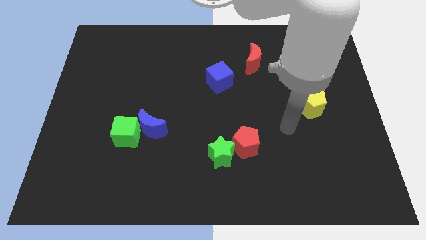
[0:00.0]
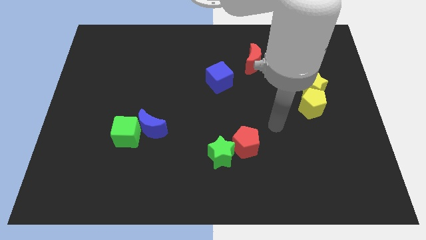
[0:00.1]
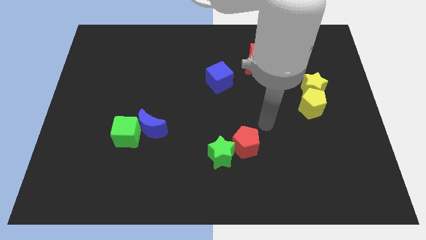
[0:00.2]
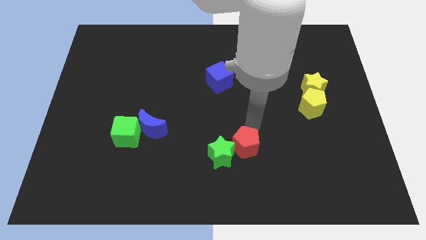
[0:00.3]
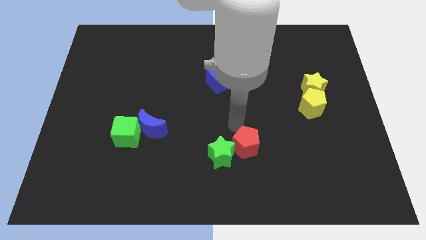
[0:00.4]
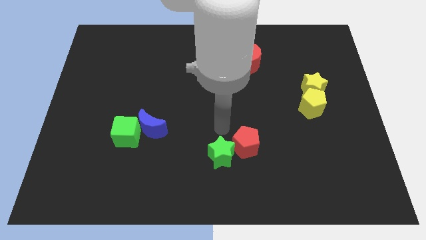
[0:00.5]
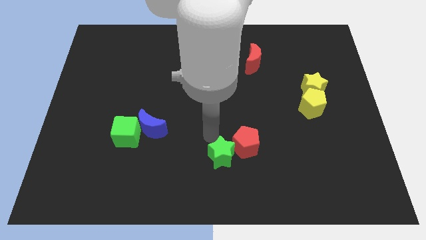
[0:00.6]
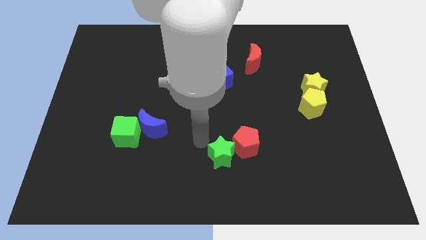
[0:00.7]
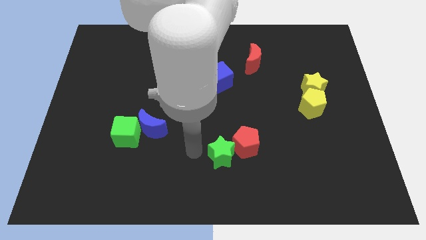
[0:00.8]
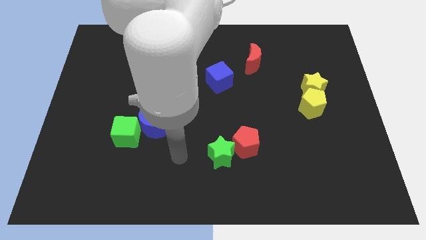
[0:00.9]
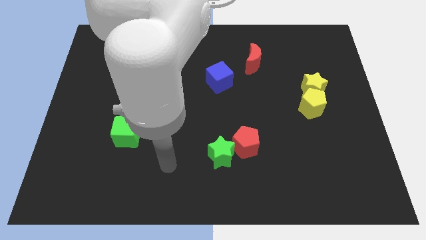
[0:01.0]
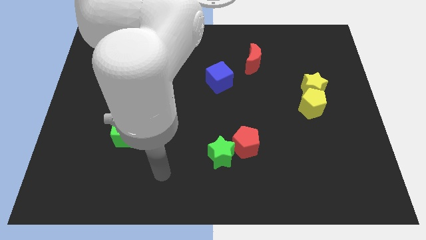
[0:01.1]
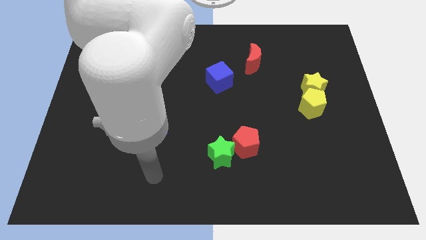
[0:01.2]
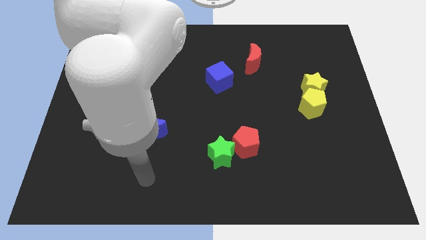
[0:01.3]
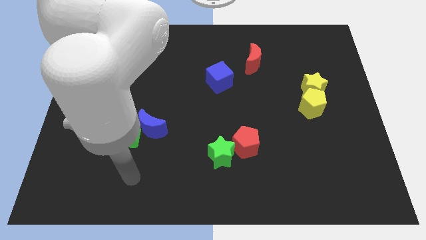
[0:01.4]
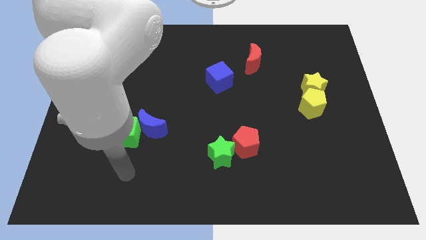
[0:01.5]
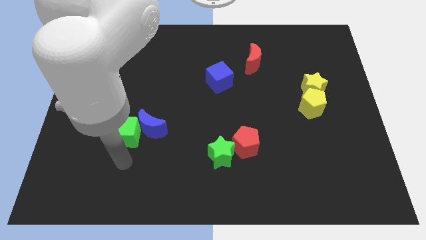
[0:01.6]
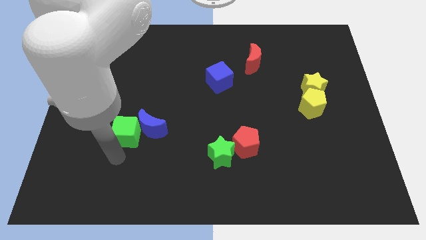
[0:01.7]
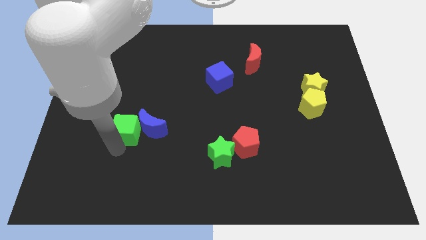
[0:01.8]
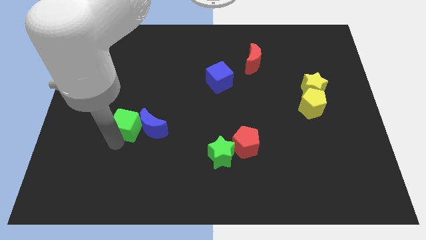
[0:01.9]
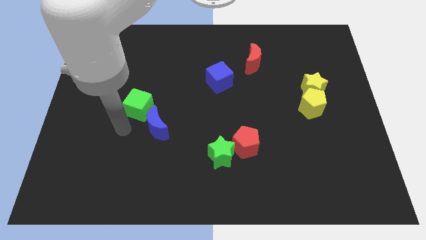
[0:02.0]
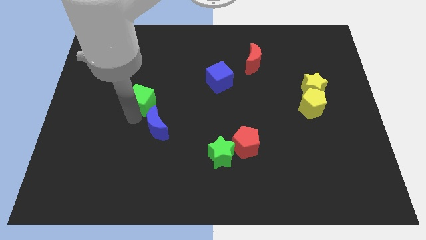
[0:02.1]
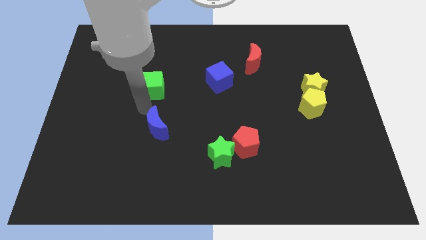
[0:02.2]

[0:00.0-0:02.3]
move the blue moon away from the green cube

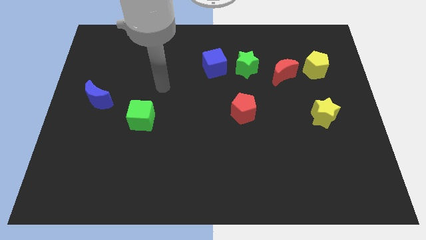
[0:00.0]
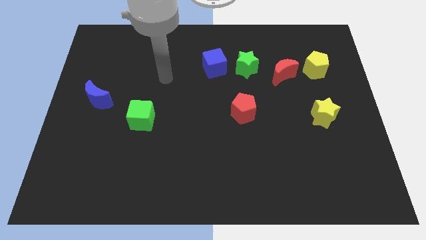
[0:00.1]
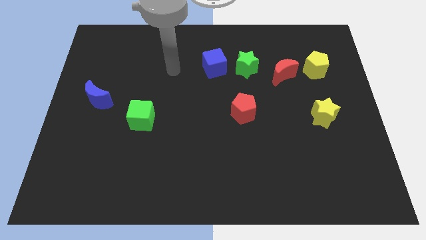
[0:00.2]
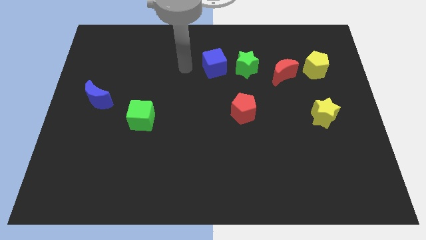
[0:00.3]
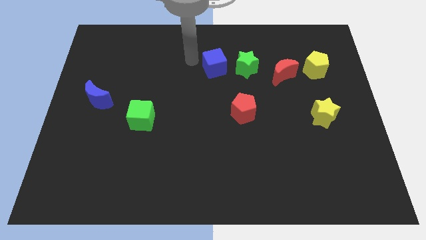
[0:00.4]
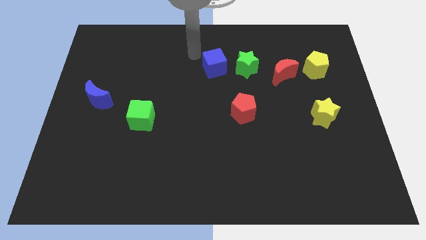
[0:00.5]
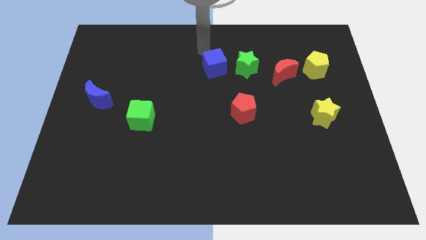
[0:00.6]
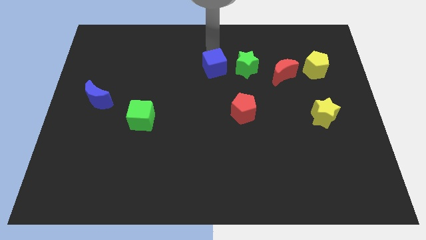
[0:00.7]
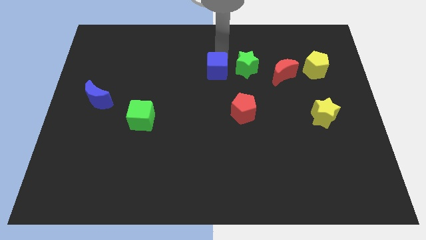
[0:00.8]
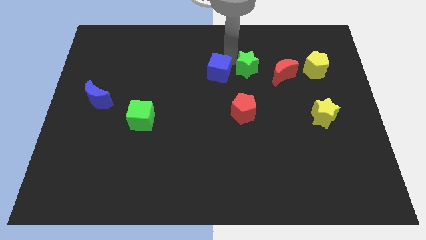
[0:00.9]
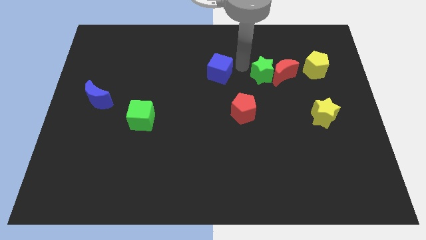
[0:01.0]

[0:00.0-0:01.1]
move the blue cube away from the green star

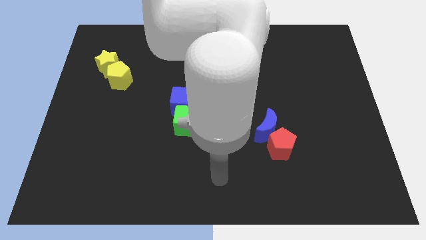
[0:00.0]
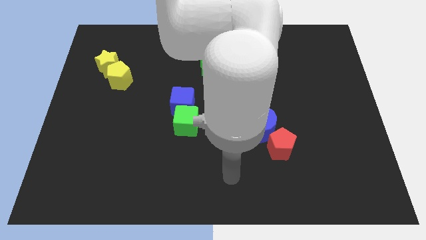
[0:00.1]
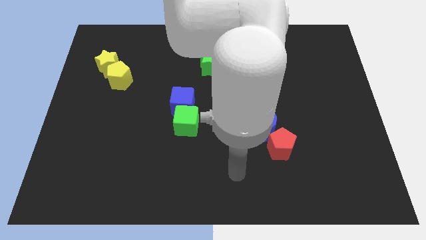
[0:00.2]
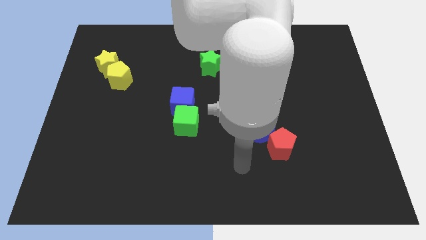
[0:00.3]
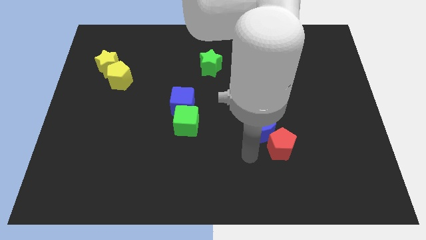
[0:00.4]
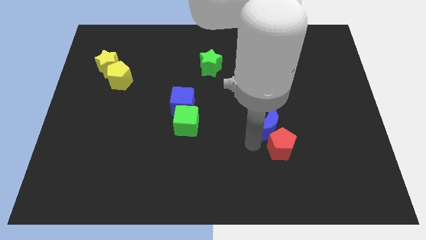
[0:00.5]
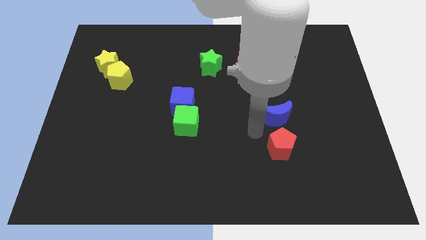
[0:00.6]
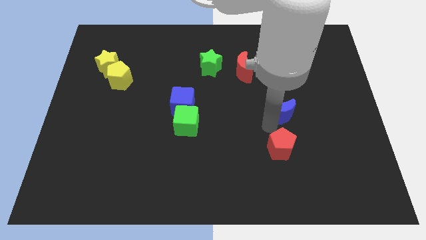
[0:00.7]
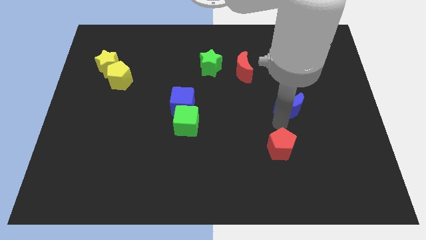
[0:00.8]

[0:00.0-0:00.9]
move the red pentagon away from the blue moon

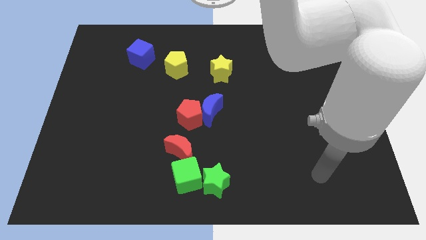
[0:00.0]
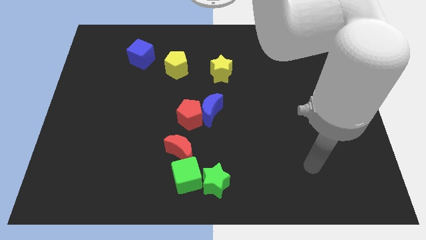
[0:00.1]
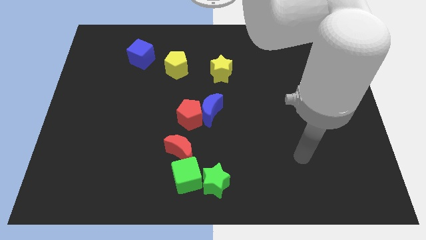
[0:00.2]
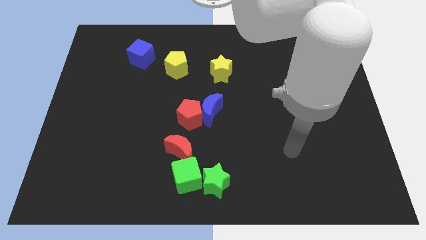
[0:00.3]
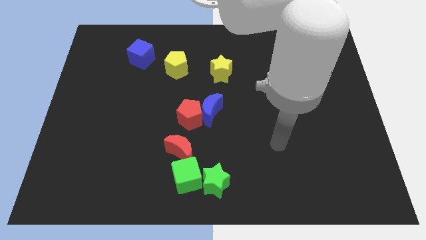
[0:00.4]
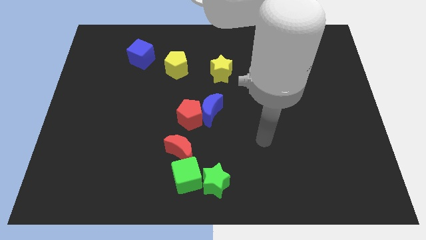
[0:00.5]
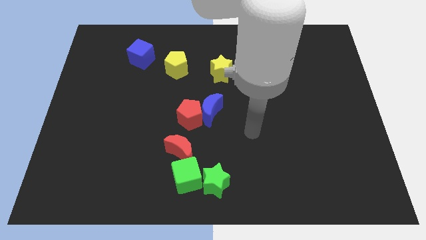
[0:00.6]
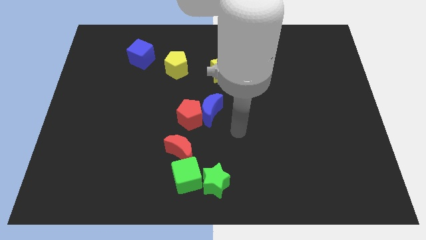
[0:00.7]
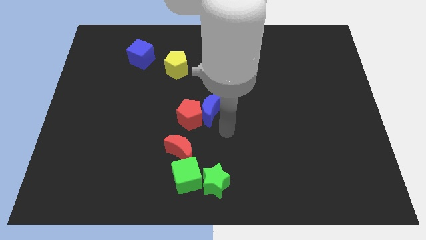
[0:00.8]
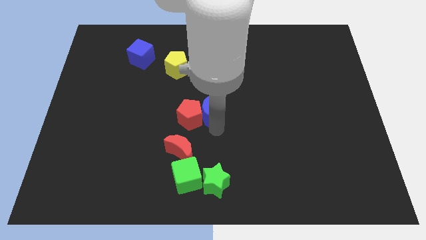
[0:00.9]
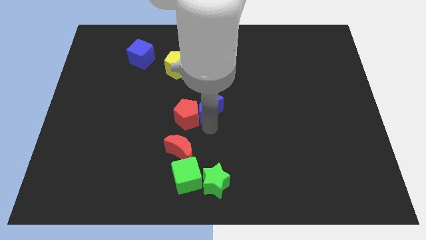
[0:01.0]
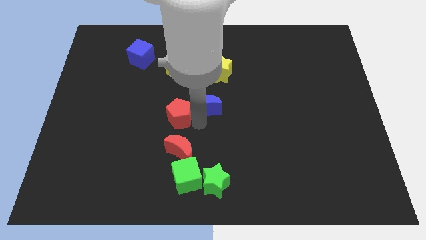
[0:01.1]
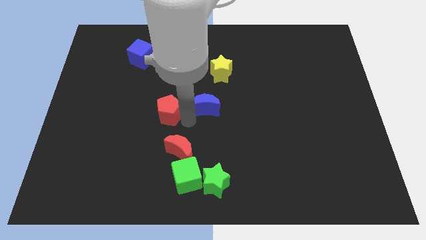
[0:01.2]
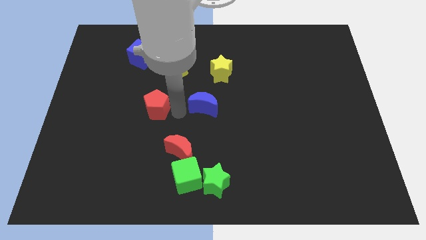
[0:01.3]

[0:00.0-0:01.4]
move the blue moon away from the red pentagon

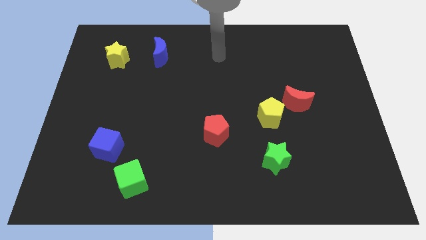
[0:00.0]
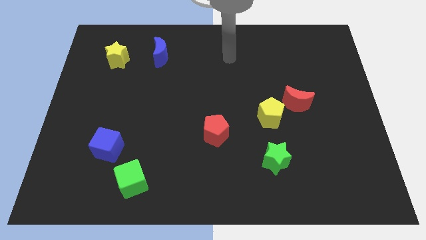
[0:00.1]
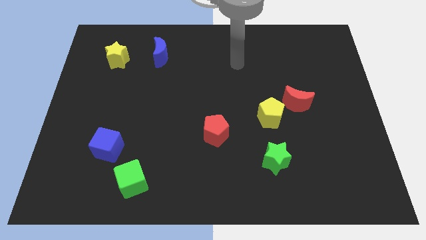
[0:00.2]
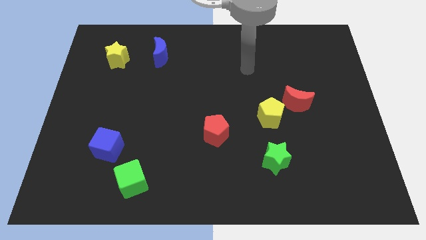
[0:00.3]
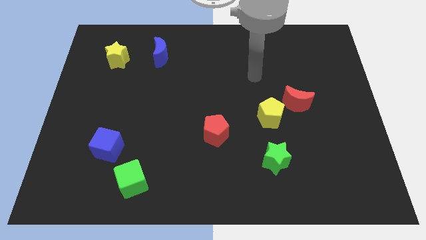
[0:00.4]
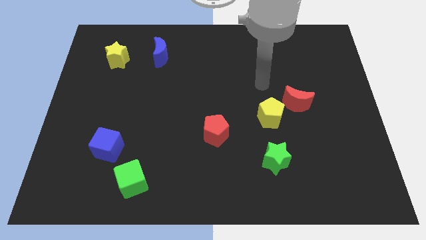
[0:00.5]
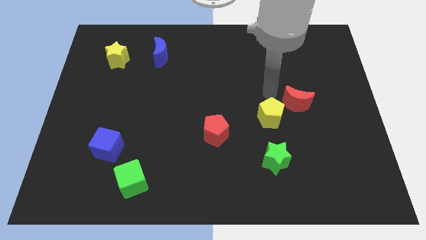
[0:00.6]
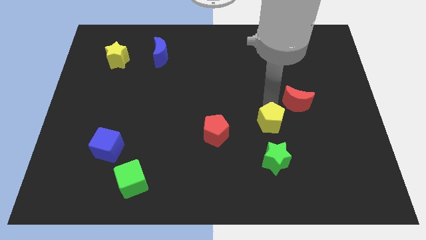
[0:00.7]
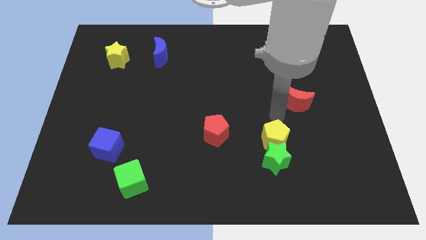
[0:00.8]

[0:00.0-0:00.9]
pull the red moon apart from the yellow pentagon

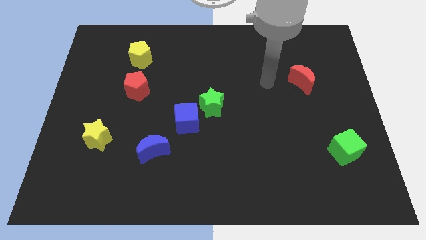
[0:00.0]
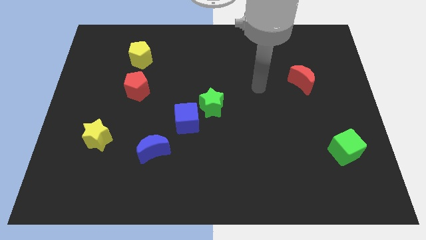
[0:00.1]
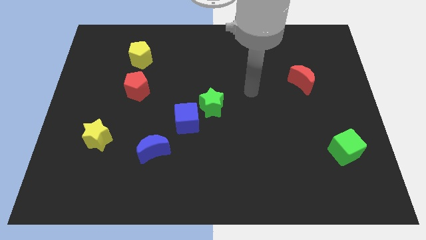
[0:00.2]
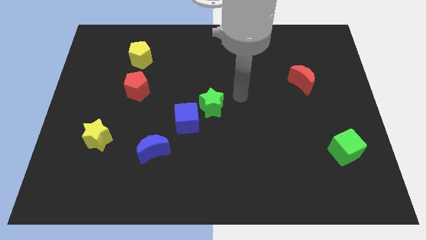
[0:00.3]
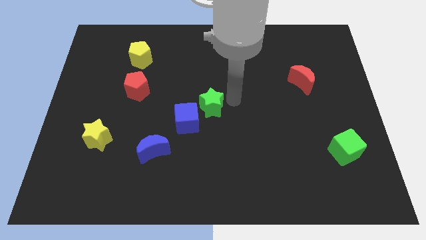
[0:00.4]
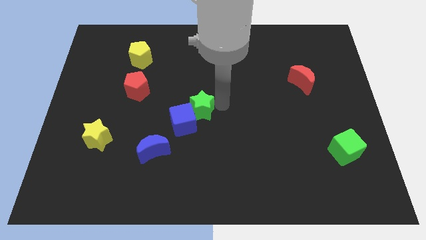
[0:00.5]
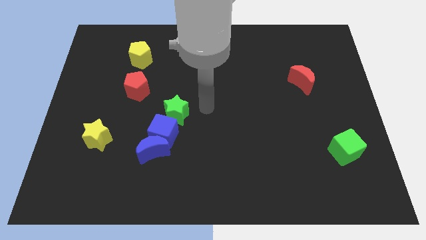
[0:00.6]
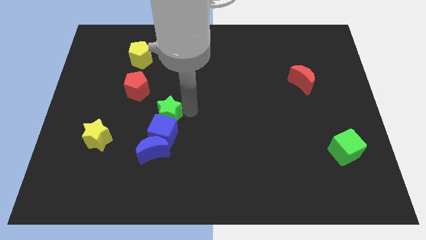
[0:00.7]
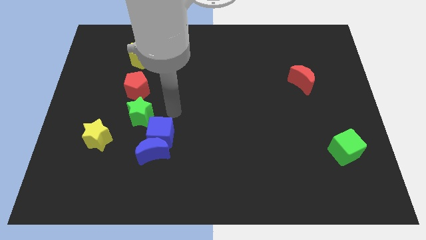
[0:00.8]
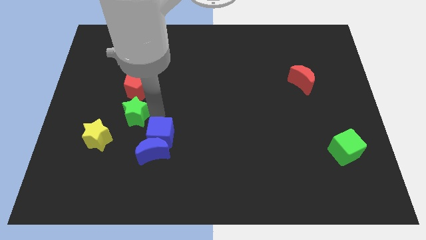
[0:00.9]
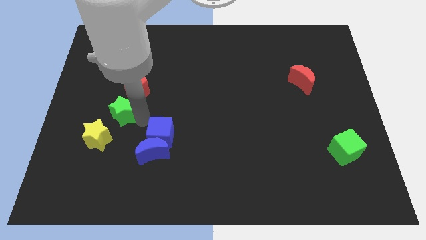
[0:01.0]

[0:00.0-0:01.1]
pull the blue cube apart from the green star

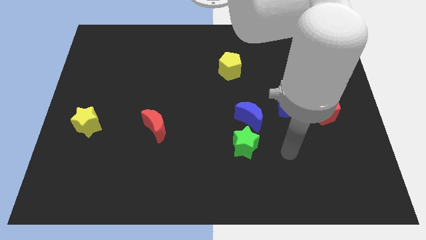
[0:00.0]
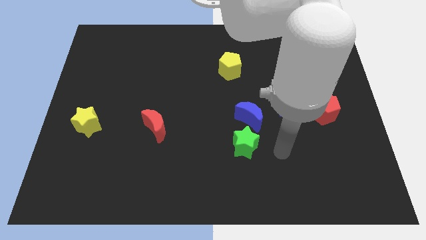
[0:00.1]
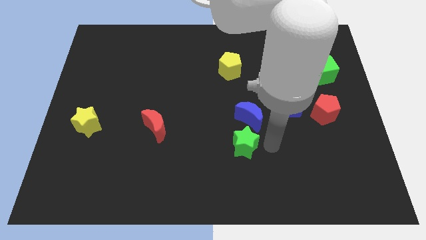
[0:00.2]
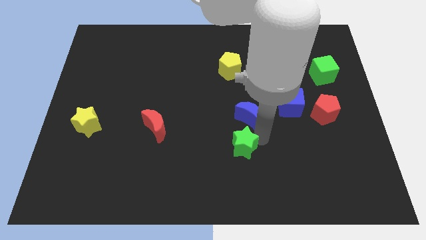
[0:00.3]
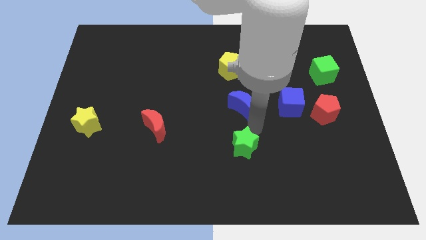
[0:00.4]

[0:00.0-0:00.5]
move the green star away from the blue moon

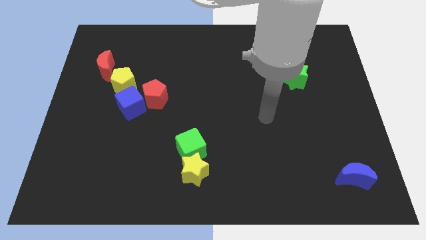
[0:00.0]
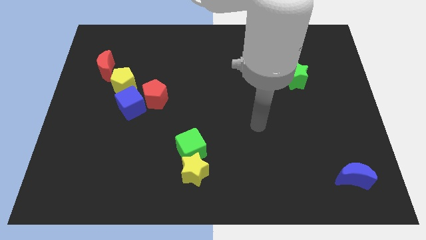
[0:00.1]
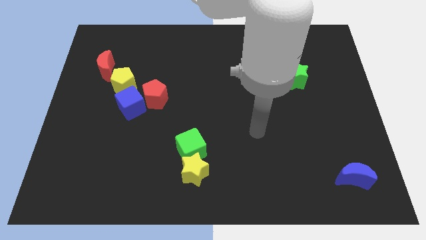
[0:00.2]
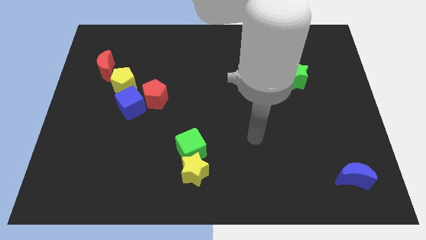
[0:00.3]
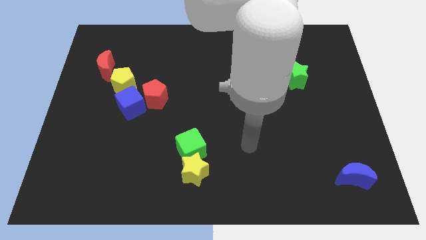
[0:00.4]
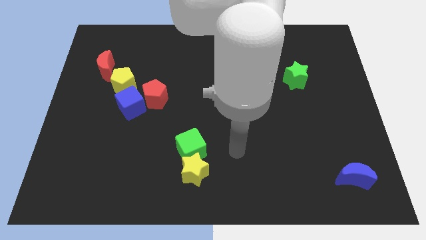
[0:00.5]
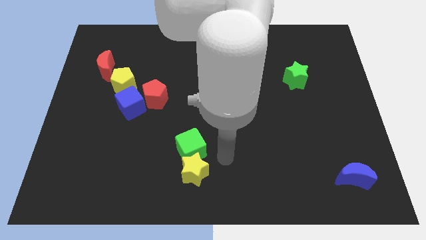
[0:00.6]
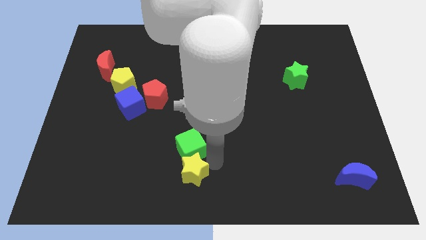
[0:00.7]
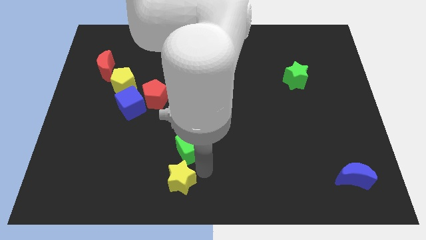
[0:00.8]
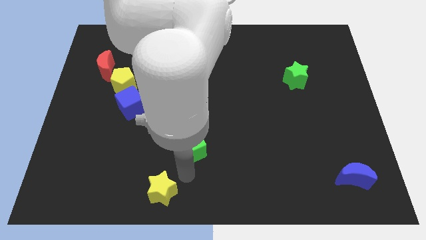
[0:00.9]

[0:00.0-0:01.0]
move the green cube away from the yellow star

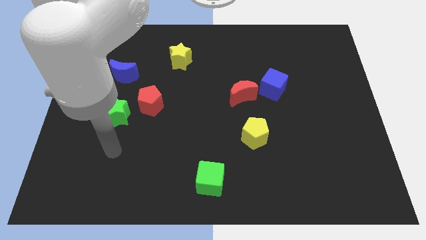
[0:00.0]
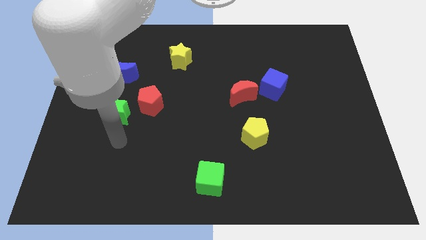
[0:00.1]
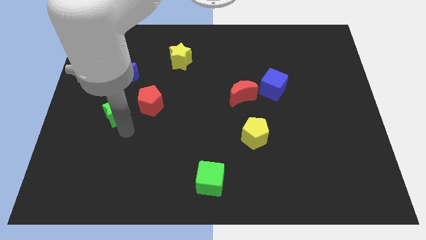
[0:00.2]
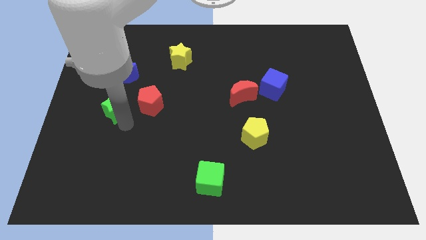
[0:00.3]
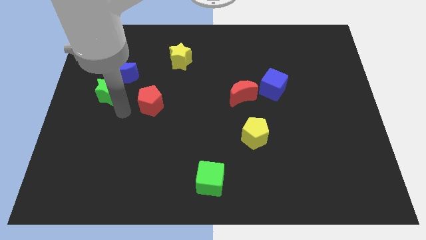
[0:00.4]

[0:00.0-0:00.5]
move the red pentagon away from the green star
